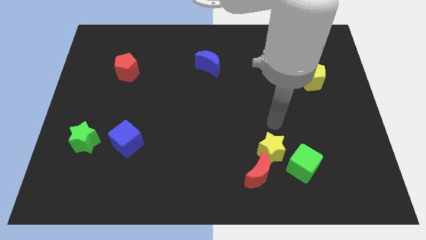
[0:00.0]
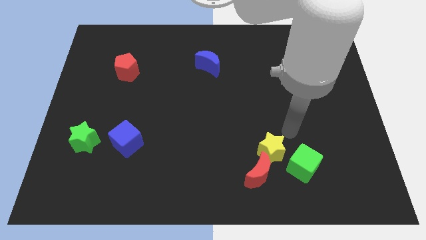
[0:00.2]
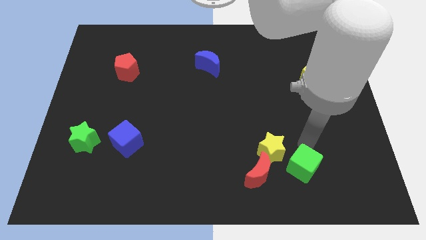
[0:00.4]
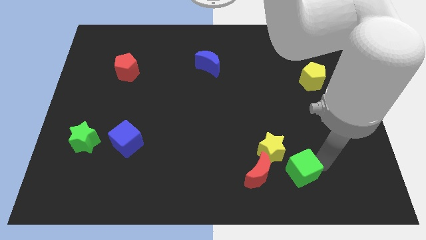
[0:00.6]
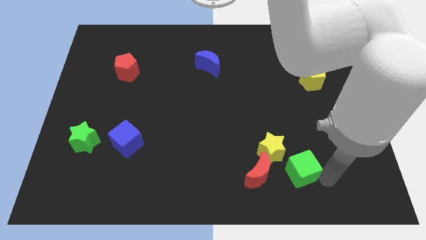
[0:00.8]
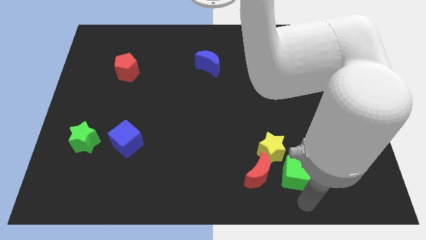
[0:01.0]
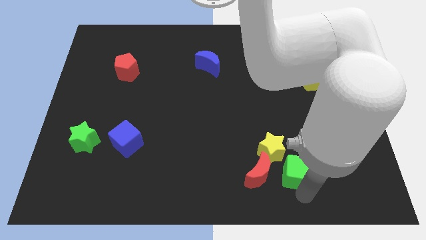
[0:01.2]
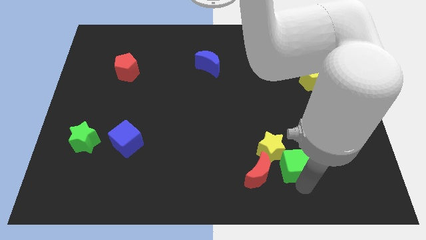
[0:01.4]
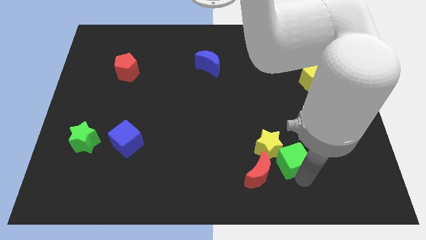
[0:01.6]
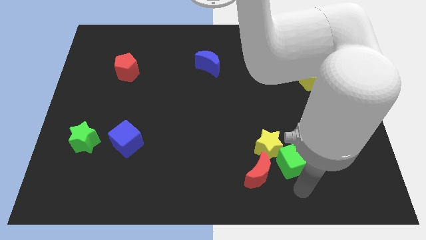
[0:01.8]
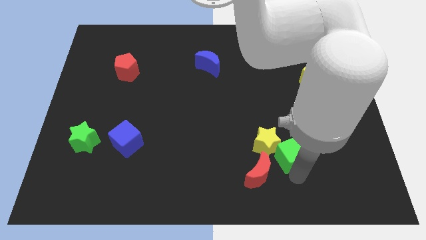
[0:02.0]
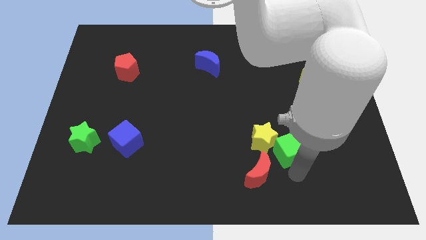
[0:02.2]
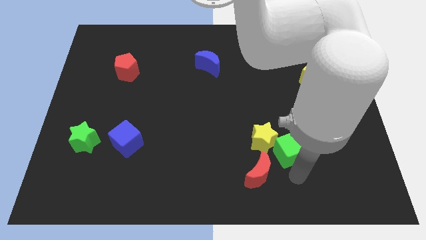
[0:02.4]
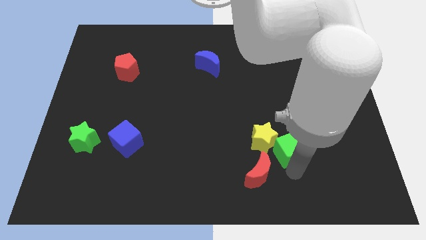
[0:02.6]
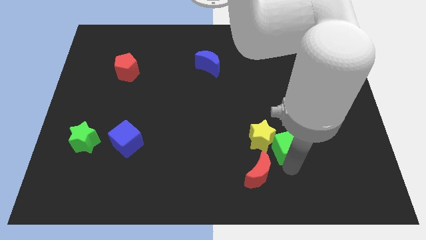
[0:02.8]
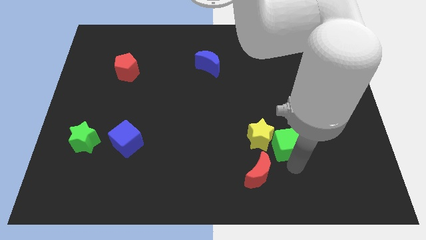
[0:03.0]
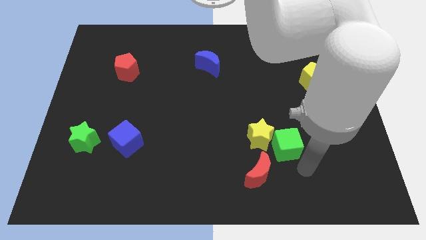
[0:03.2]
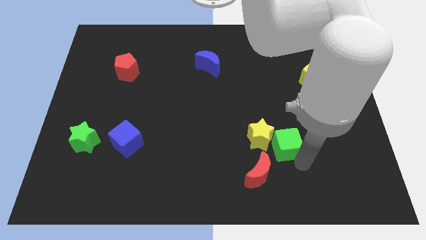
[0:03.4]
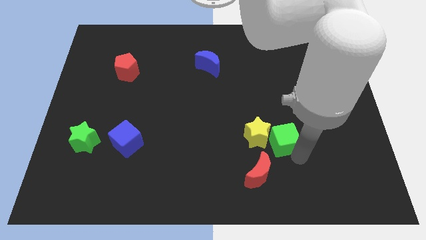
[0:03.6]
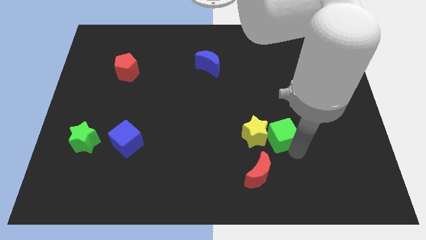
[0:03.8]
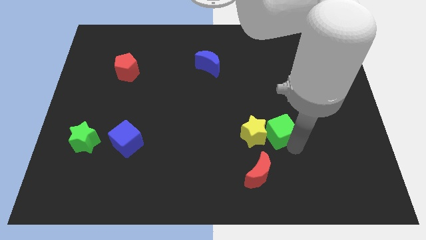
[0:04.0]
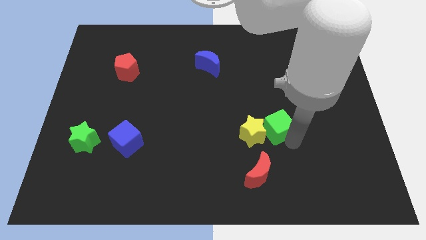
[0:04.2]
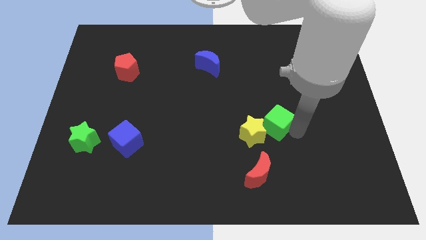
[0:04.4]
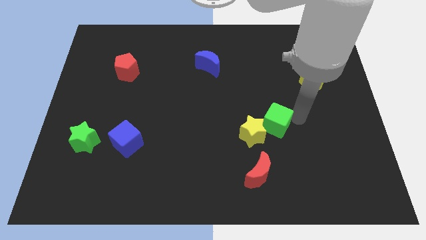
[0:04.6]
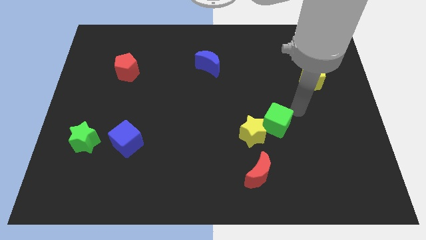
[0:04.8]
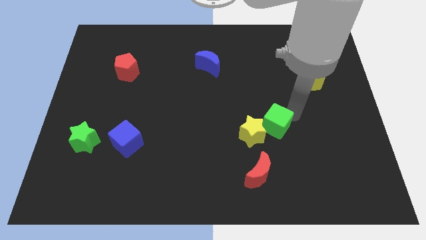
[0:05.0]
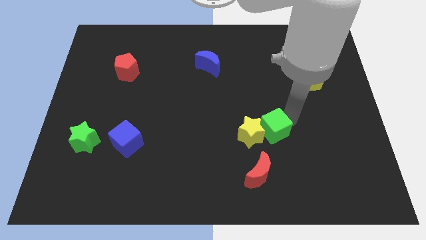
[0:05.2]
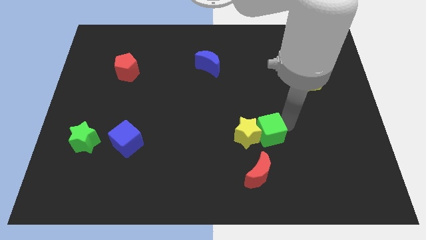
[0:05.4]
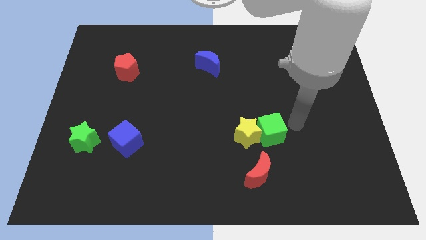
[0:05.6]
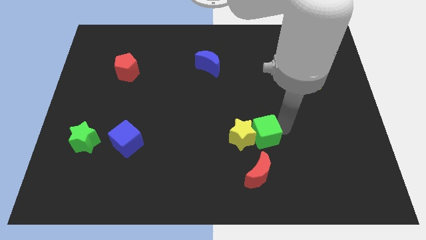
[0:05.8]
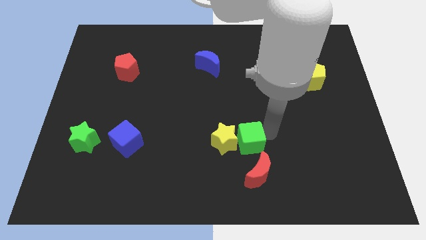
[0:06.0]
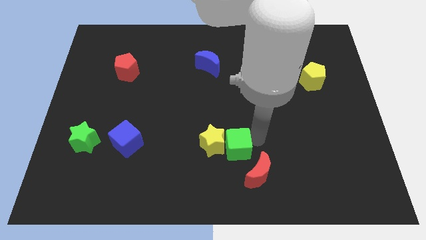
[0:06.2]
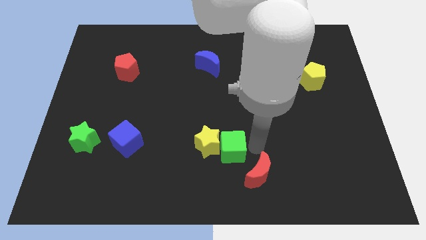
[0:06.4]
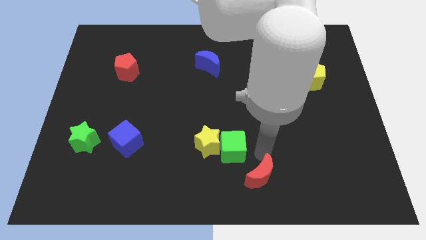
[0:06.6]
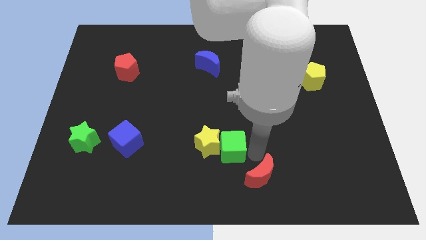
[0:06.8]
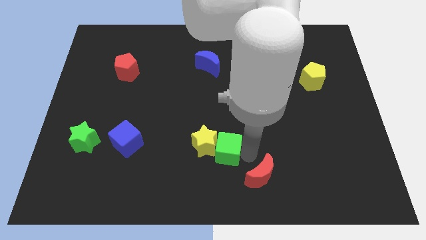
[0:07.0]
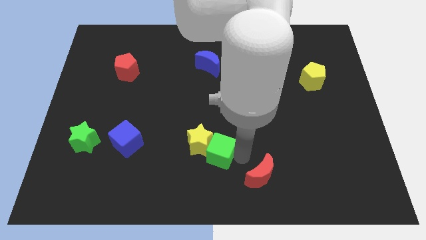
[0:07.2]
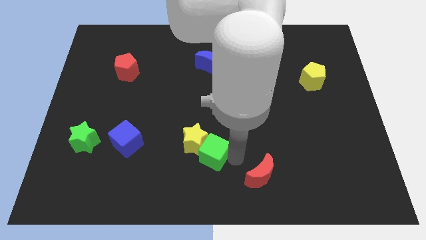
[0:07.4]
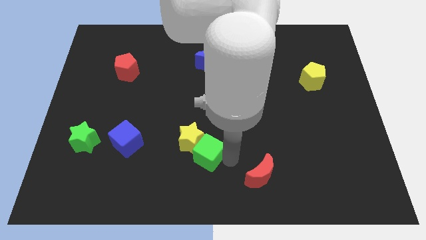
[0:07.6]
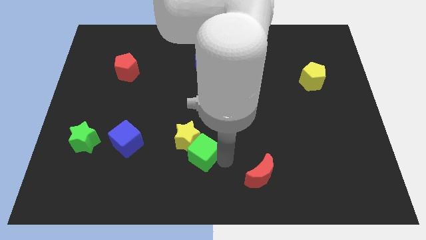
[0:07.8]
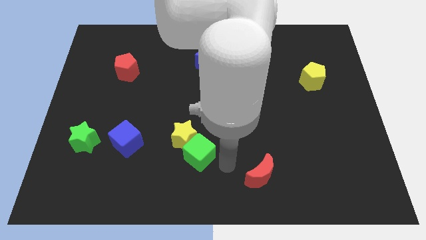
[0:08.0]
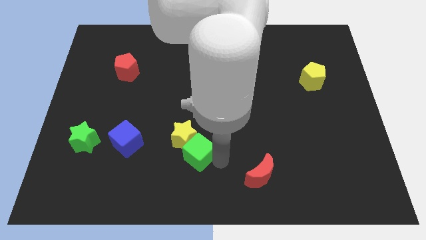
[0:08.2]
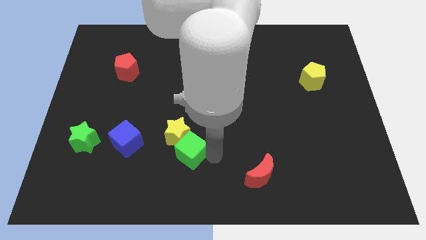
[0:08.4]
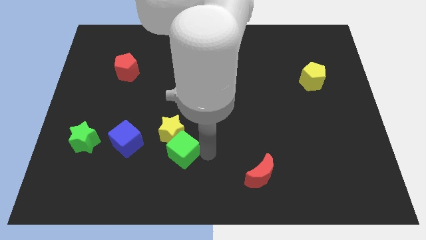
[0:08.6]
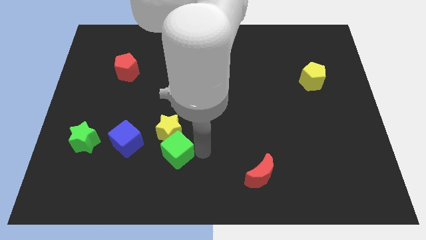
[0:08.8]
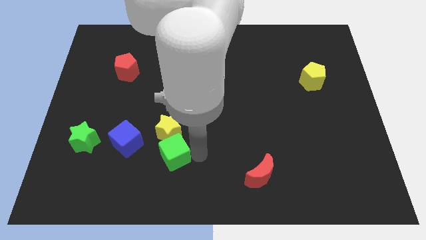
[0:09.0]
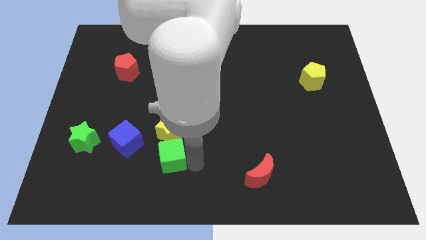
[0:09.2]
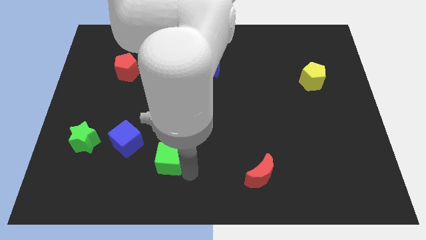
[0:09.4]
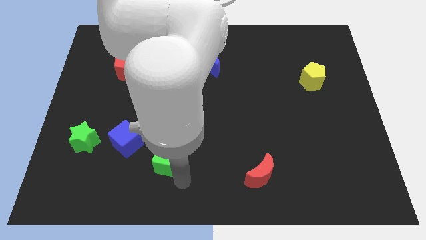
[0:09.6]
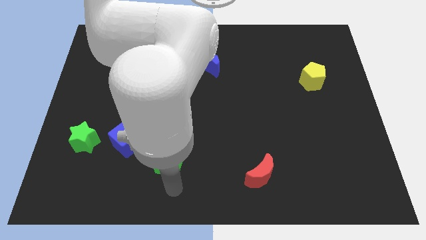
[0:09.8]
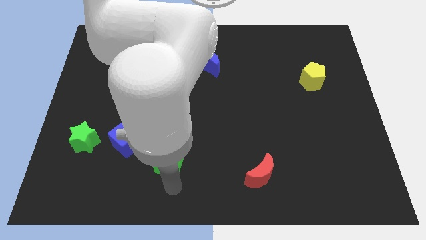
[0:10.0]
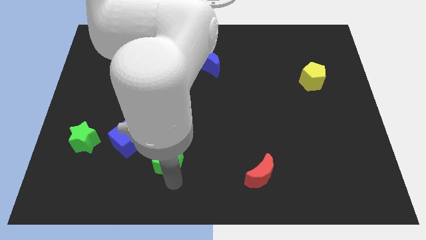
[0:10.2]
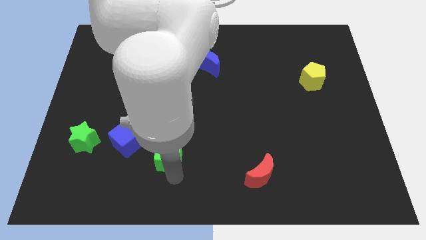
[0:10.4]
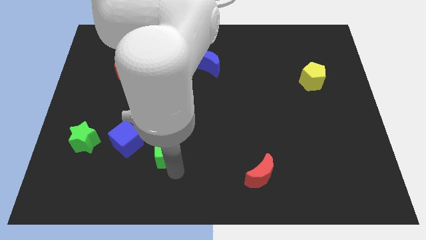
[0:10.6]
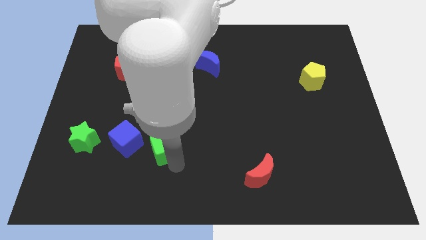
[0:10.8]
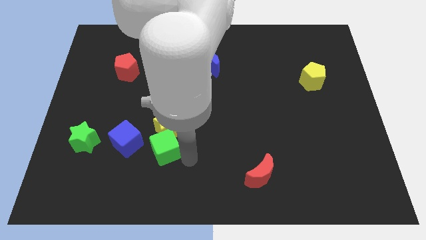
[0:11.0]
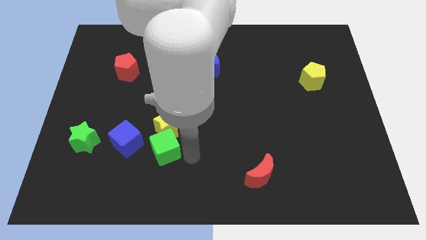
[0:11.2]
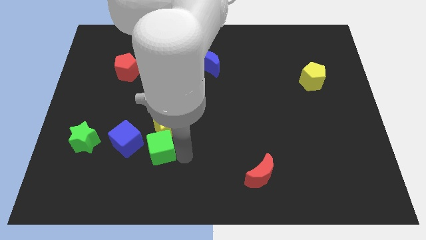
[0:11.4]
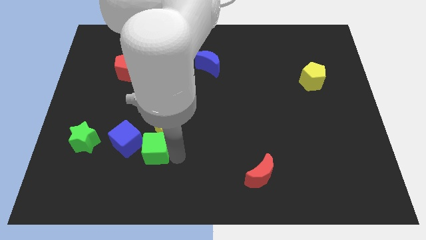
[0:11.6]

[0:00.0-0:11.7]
move the green cube just right of the green star

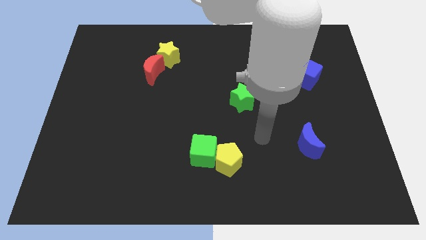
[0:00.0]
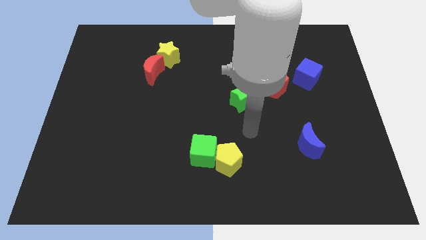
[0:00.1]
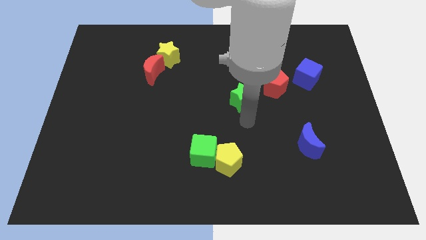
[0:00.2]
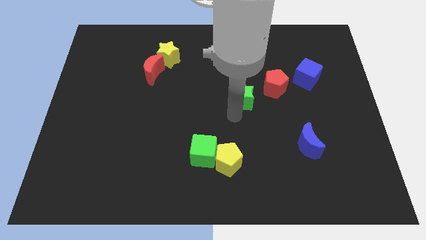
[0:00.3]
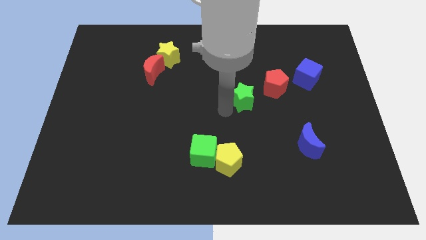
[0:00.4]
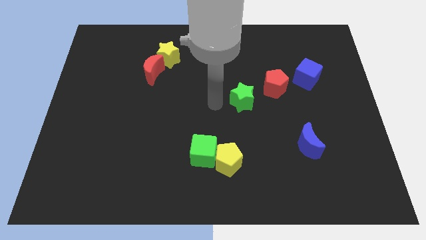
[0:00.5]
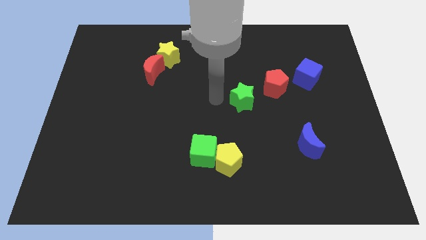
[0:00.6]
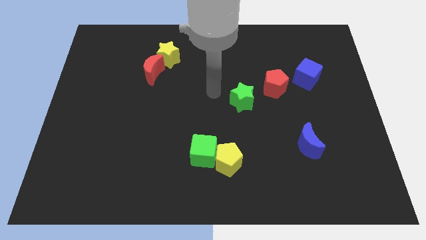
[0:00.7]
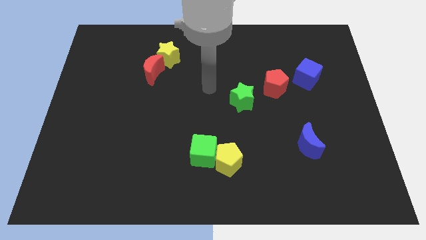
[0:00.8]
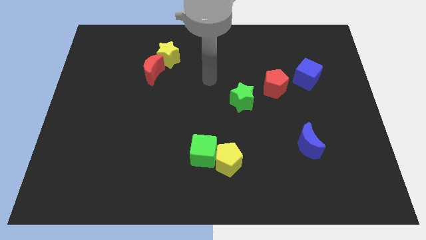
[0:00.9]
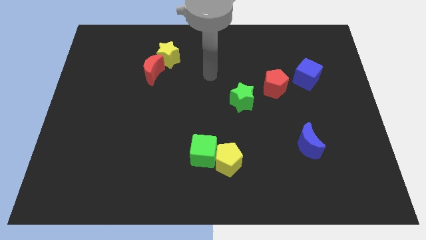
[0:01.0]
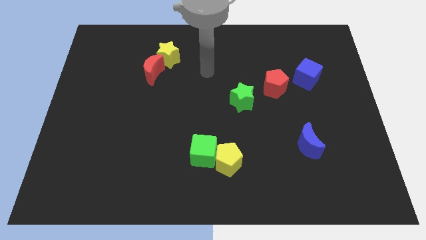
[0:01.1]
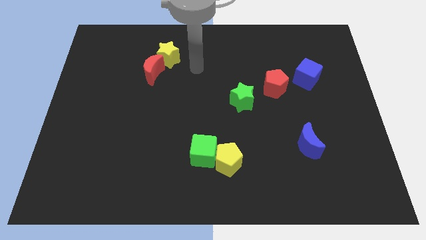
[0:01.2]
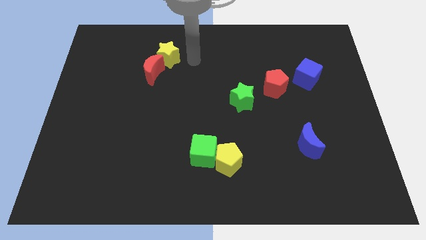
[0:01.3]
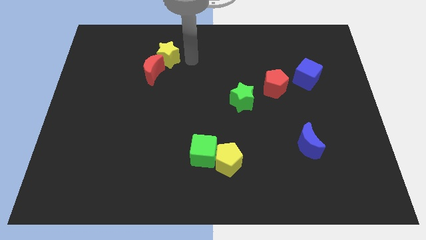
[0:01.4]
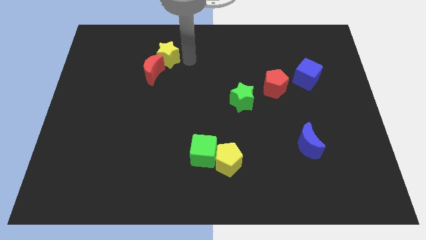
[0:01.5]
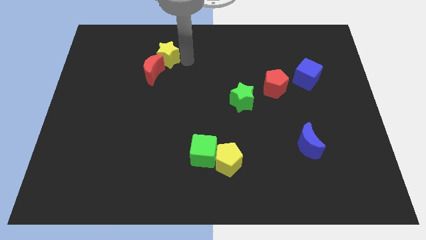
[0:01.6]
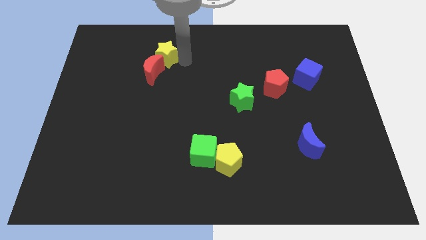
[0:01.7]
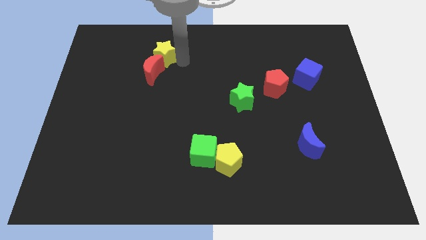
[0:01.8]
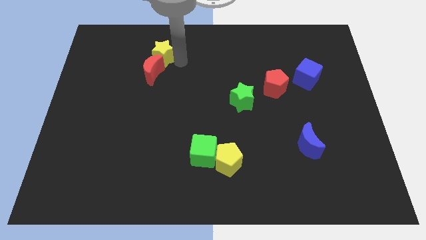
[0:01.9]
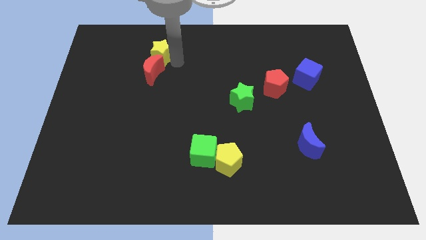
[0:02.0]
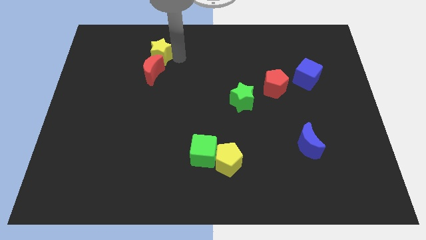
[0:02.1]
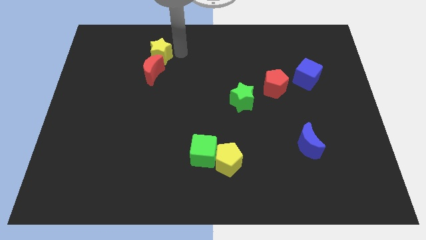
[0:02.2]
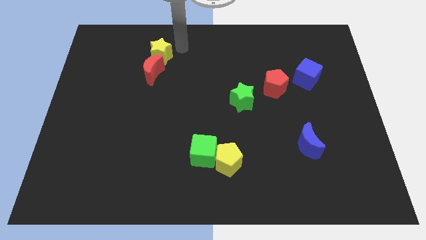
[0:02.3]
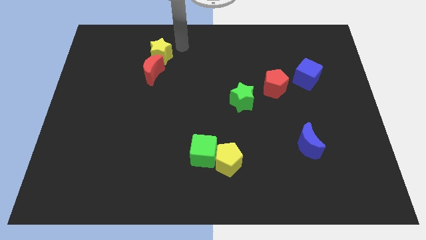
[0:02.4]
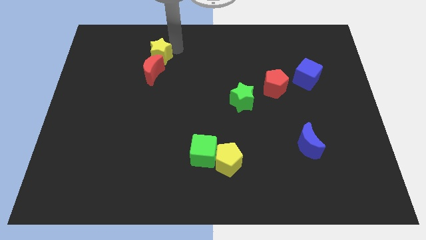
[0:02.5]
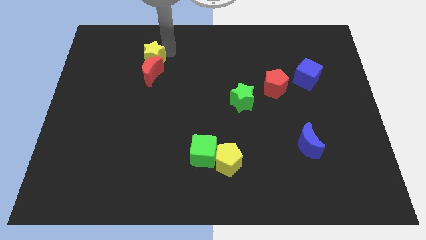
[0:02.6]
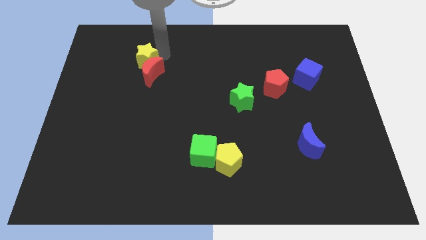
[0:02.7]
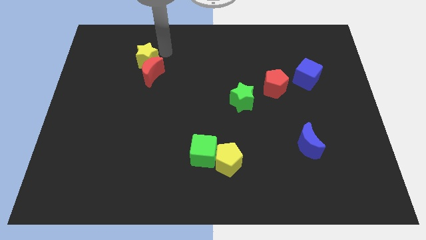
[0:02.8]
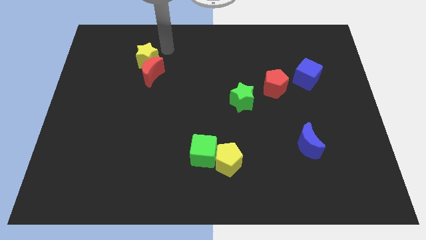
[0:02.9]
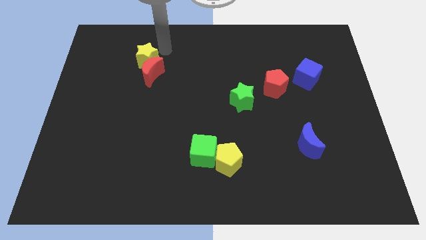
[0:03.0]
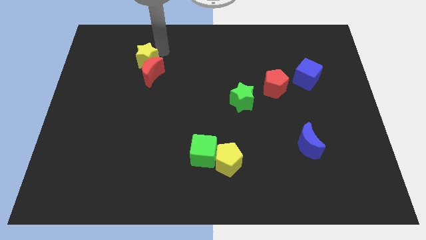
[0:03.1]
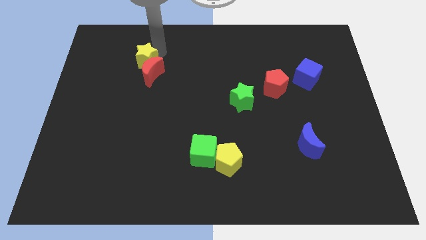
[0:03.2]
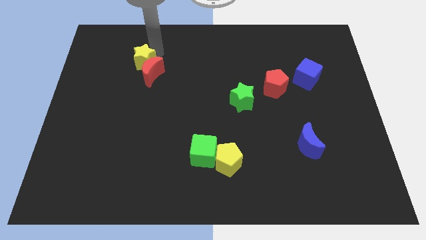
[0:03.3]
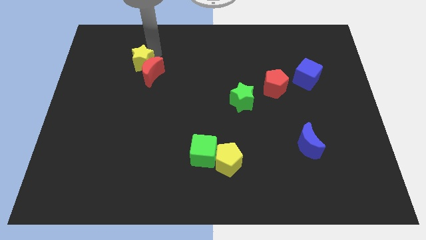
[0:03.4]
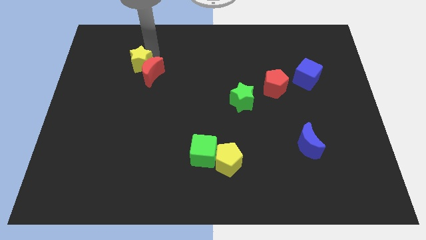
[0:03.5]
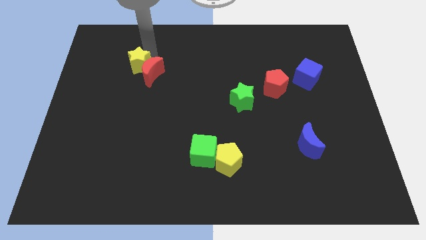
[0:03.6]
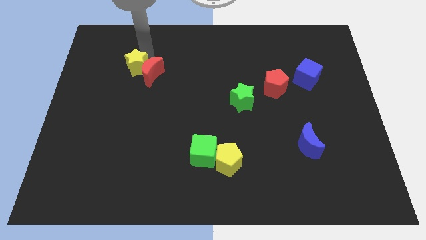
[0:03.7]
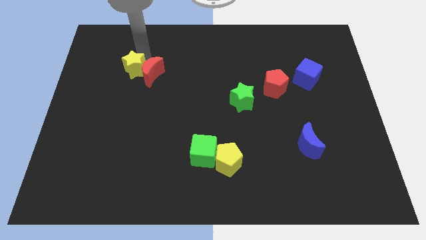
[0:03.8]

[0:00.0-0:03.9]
push the yellow star diagonally down and to the left of the red moon
